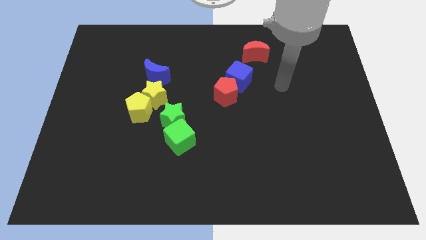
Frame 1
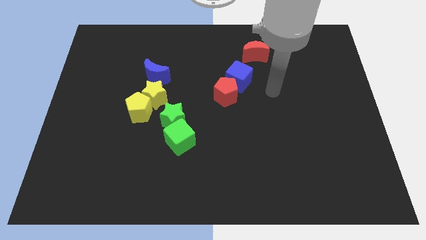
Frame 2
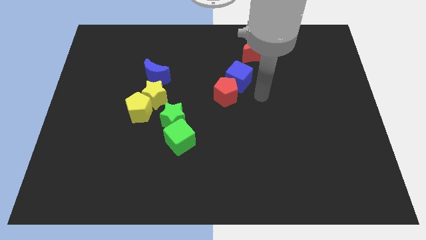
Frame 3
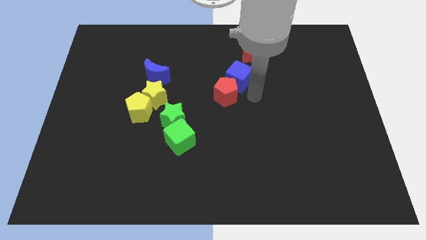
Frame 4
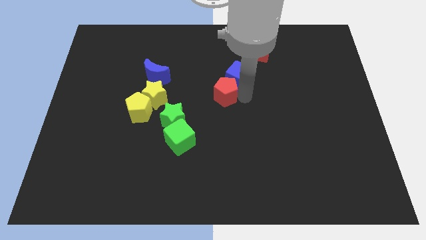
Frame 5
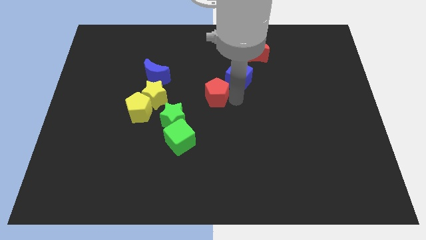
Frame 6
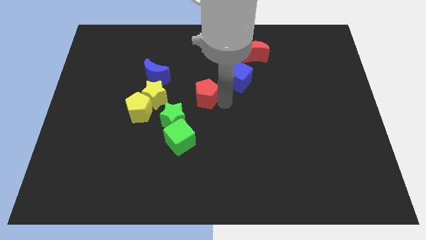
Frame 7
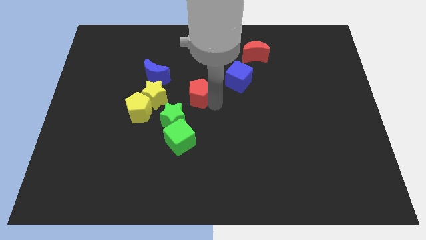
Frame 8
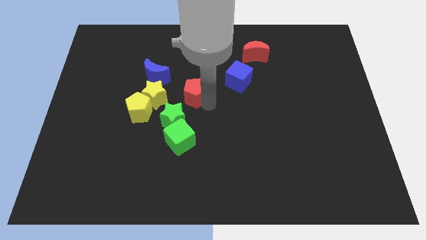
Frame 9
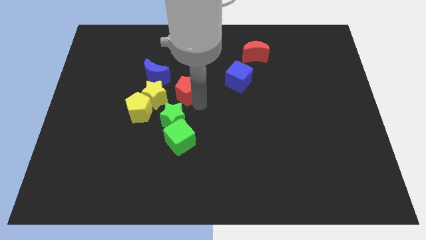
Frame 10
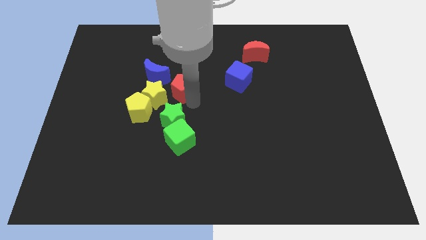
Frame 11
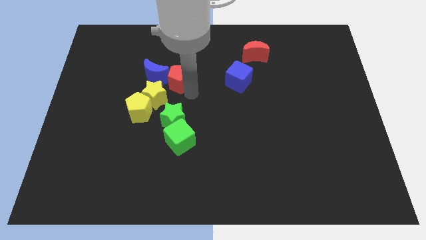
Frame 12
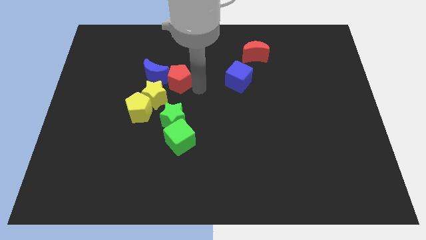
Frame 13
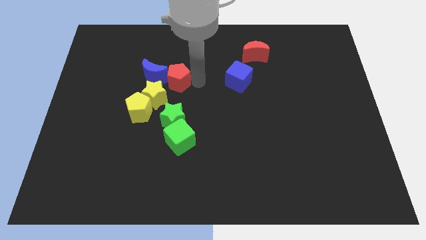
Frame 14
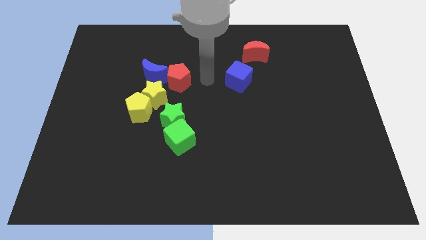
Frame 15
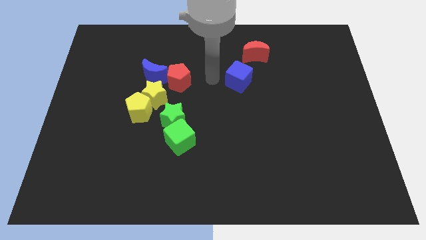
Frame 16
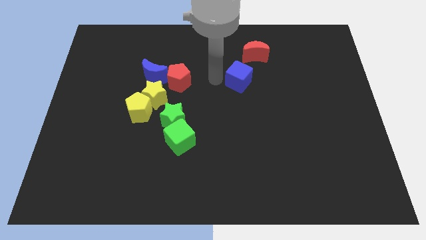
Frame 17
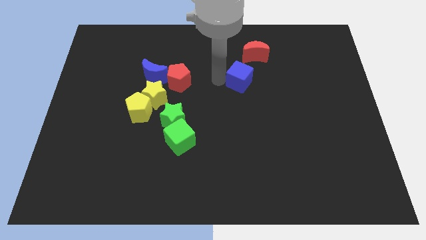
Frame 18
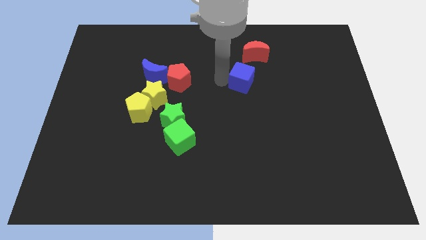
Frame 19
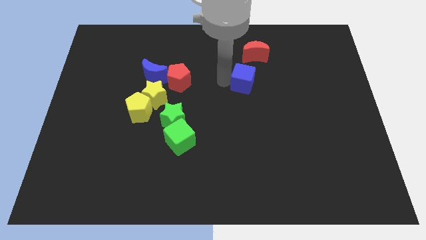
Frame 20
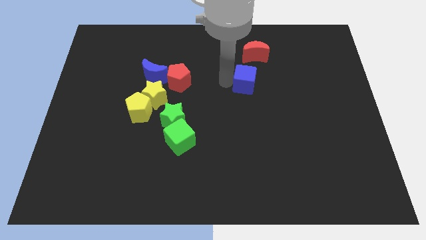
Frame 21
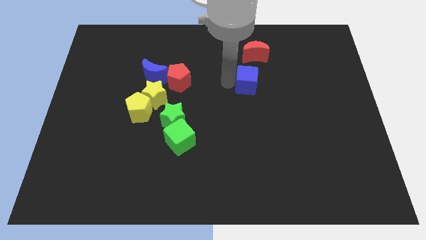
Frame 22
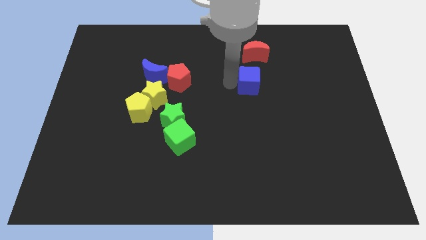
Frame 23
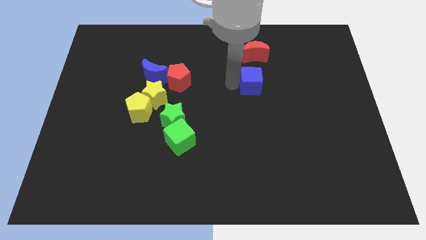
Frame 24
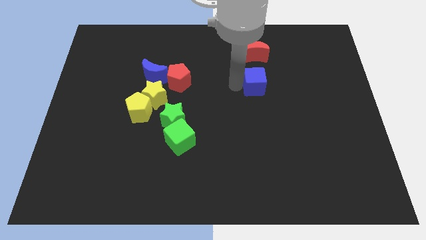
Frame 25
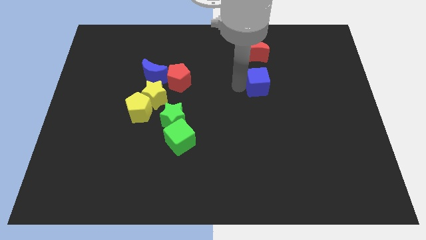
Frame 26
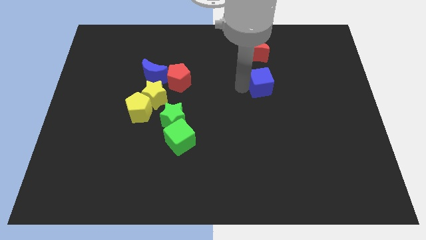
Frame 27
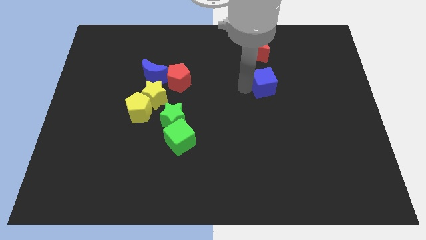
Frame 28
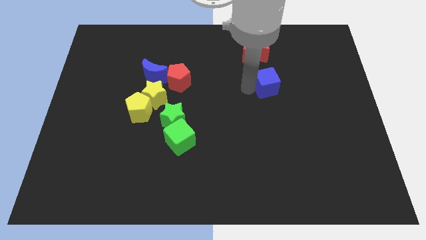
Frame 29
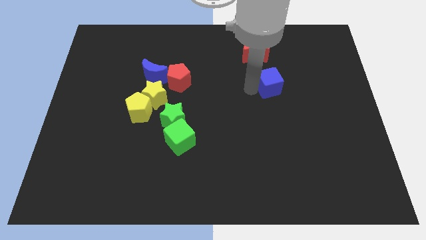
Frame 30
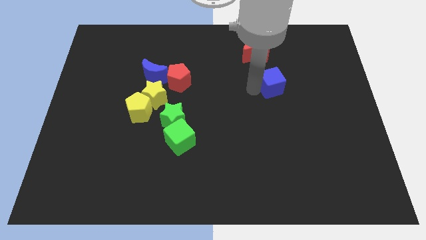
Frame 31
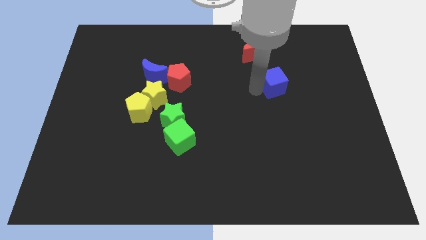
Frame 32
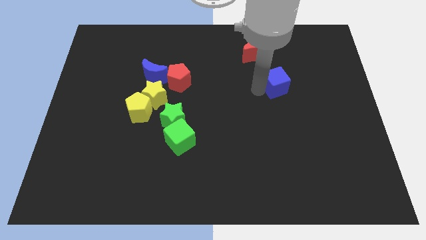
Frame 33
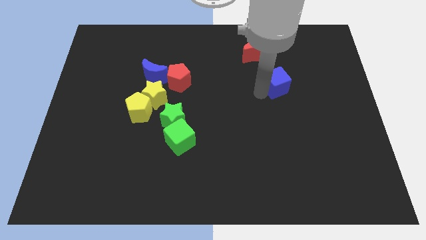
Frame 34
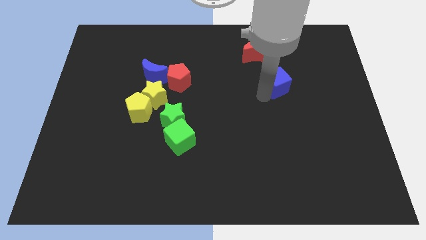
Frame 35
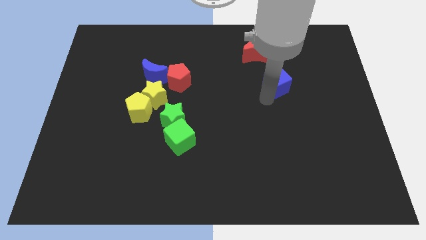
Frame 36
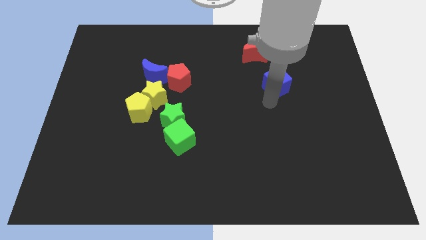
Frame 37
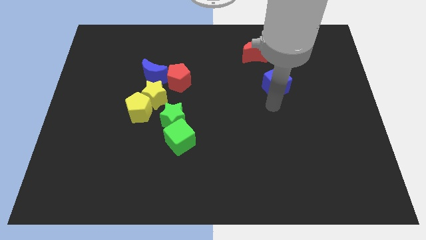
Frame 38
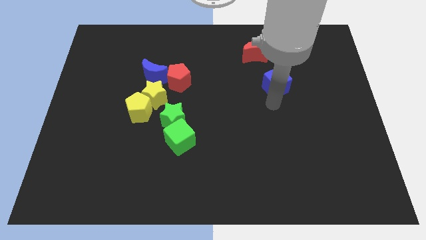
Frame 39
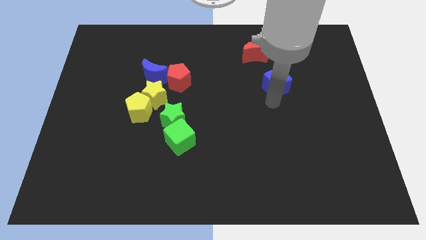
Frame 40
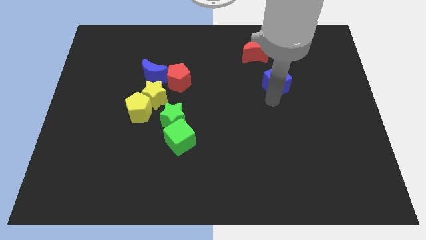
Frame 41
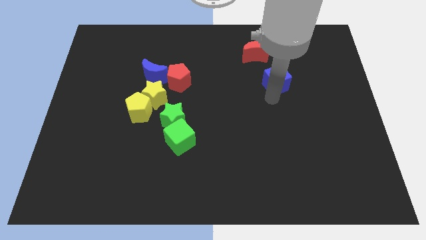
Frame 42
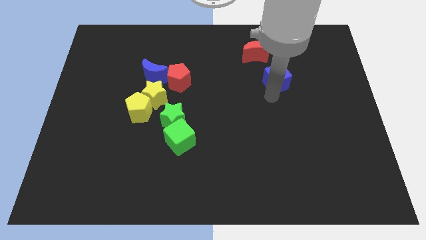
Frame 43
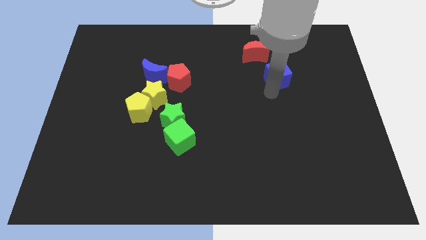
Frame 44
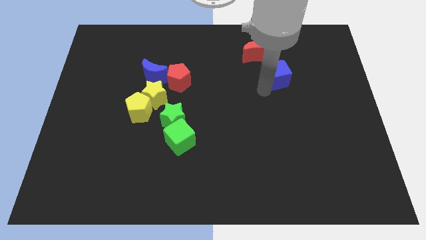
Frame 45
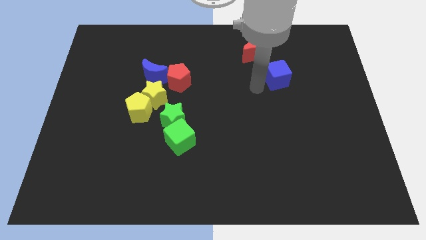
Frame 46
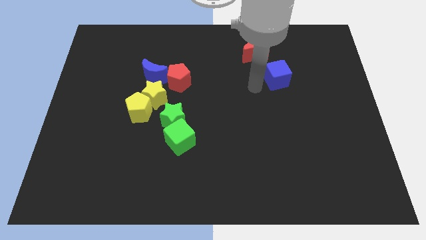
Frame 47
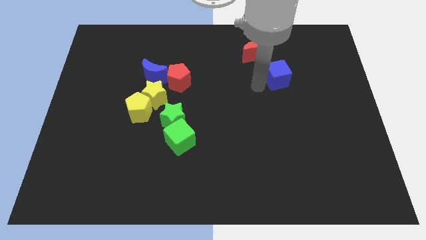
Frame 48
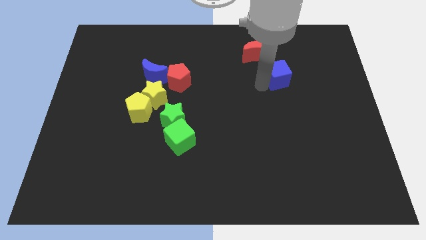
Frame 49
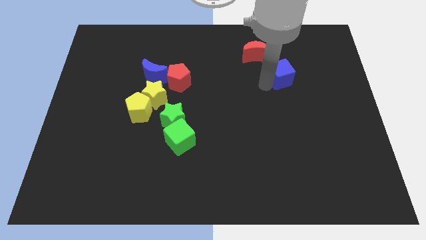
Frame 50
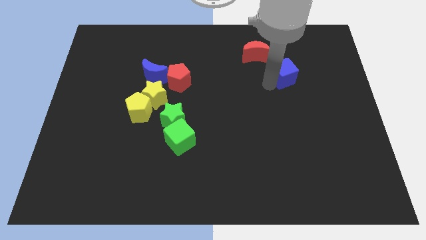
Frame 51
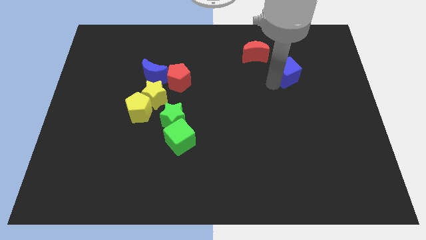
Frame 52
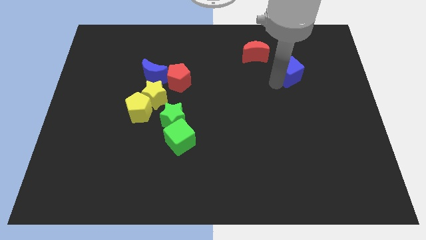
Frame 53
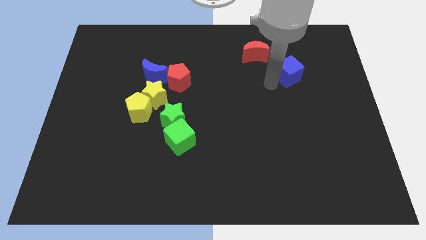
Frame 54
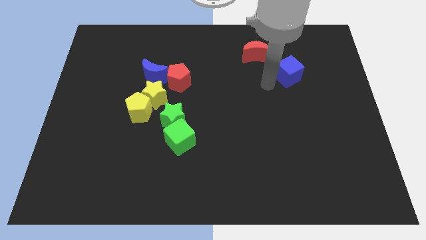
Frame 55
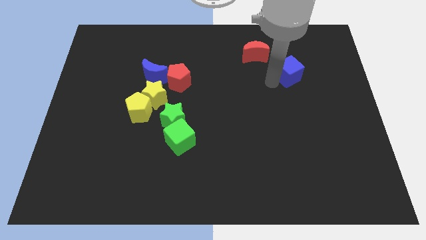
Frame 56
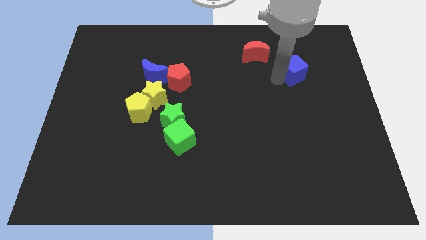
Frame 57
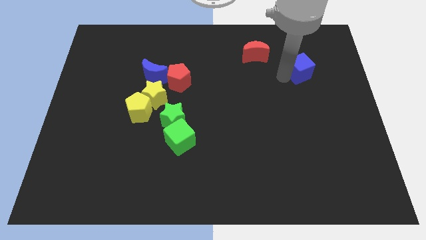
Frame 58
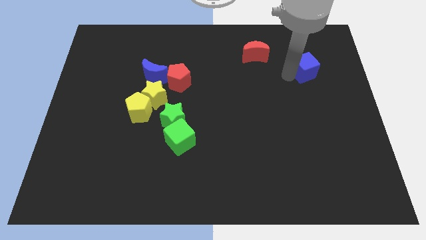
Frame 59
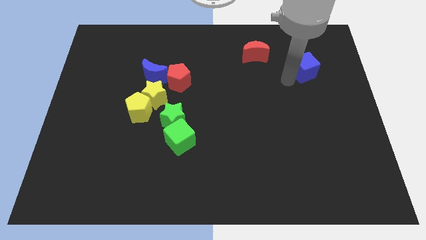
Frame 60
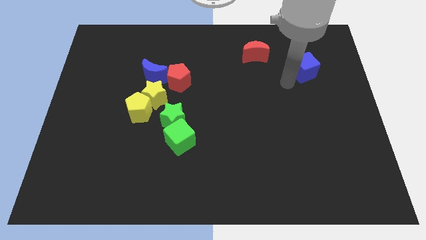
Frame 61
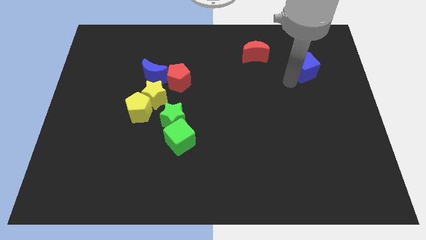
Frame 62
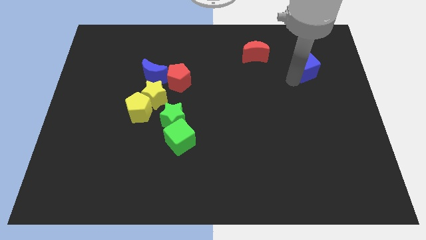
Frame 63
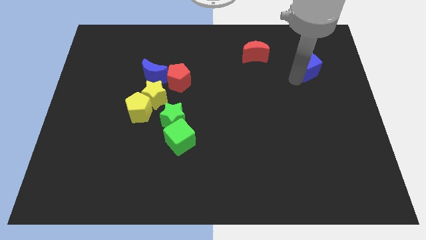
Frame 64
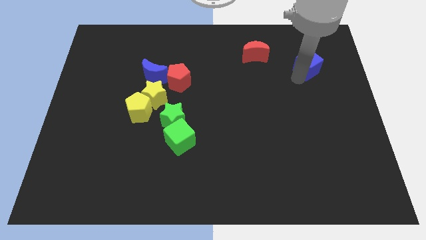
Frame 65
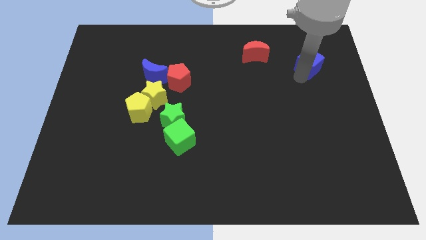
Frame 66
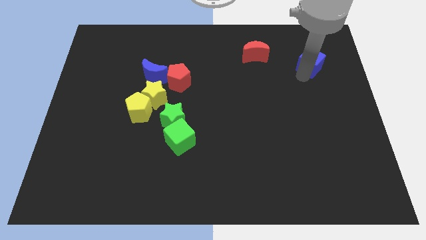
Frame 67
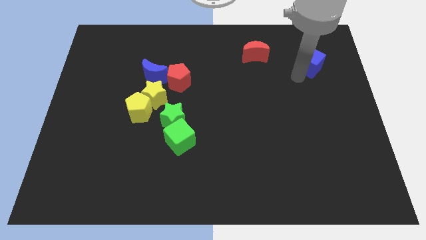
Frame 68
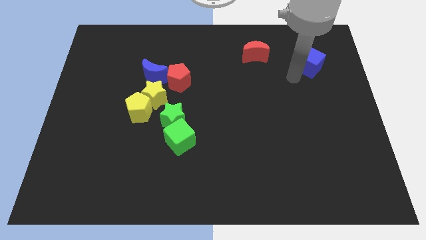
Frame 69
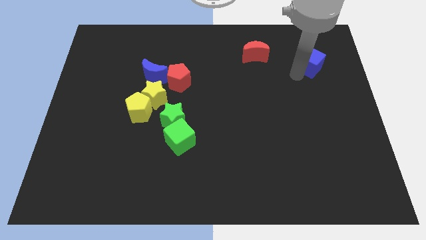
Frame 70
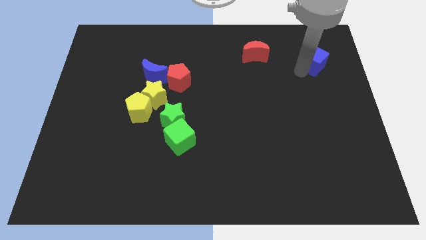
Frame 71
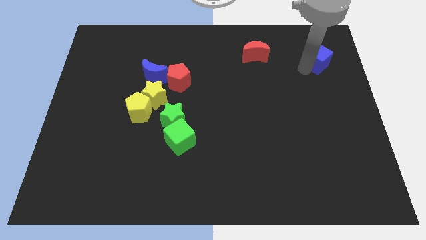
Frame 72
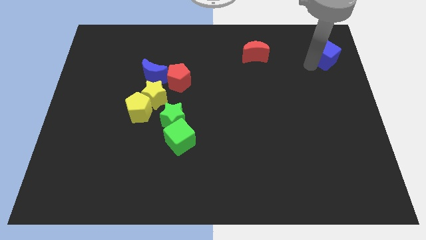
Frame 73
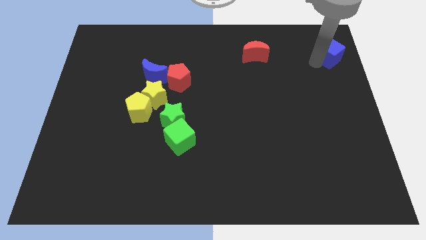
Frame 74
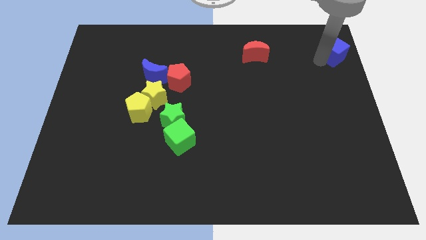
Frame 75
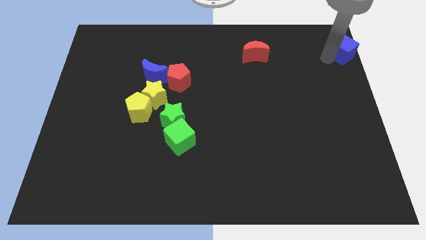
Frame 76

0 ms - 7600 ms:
move the blue cube to the top right
